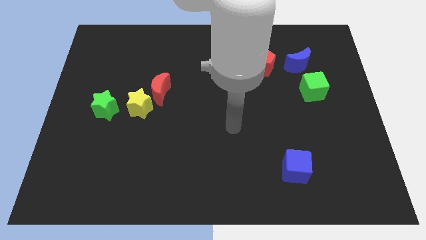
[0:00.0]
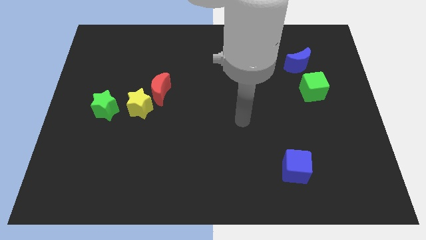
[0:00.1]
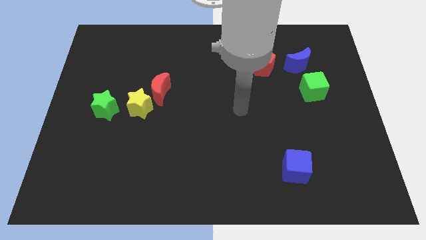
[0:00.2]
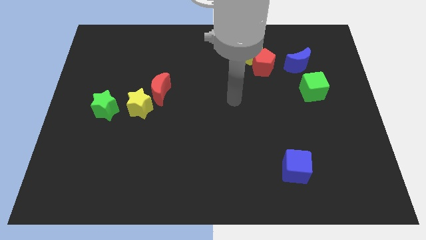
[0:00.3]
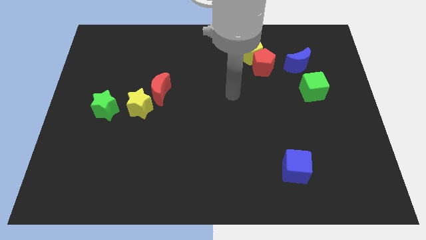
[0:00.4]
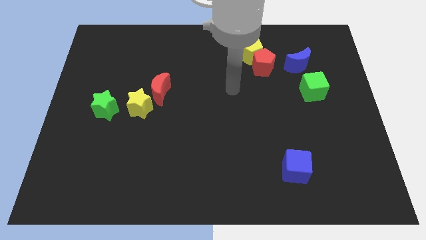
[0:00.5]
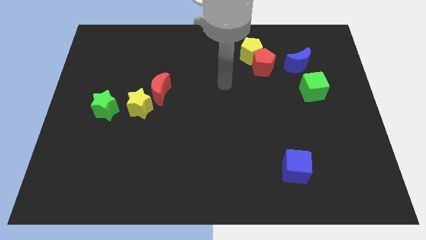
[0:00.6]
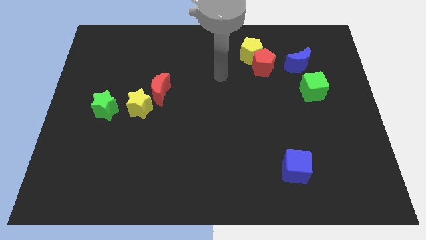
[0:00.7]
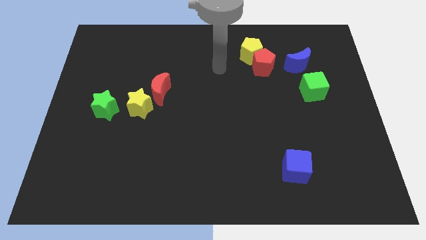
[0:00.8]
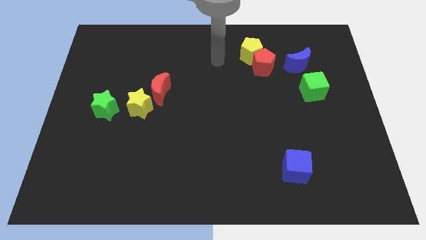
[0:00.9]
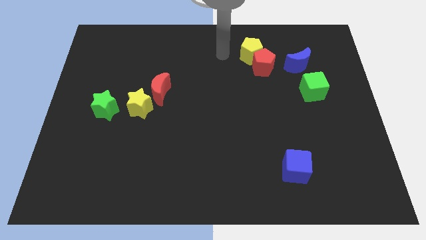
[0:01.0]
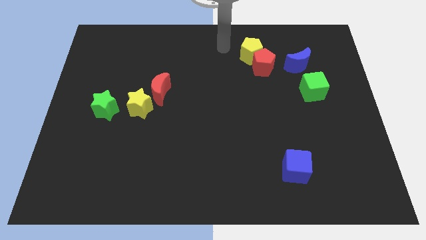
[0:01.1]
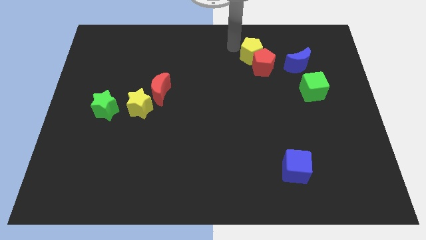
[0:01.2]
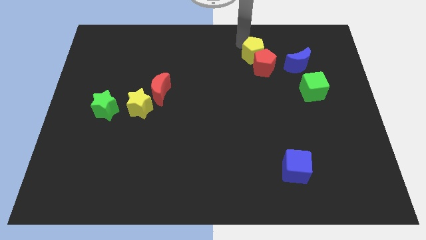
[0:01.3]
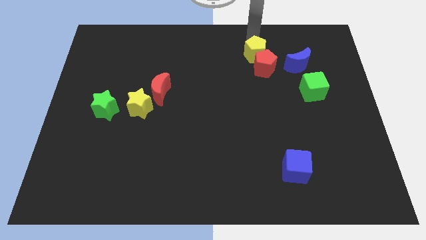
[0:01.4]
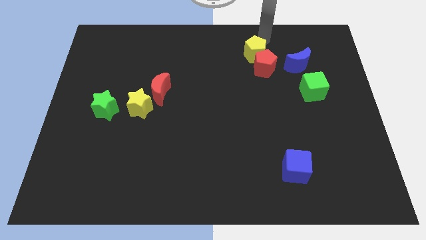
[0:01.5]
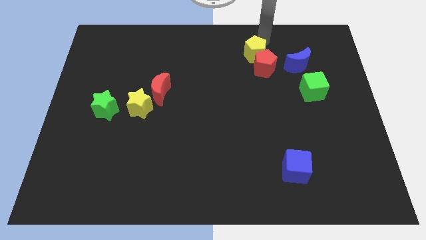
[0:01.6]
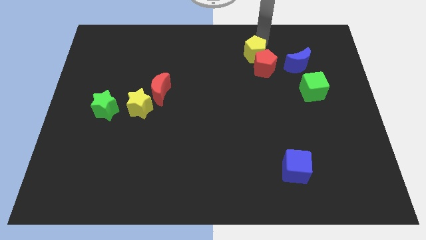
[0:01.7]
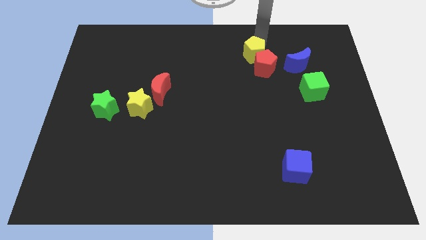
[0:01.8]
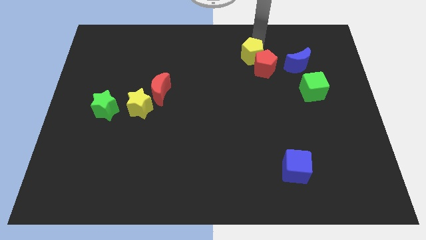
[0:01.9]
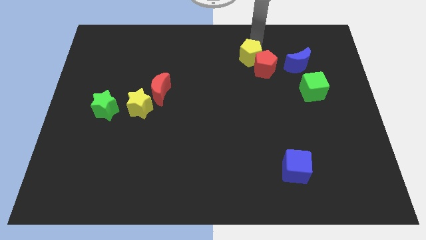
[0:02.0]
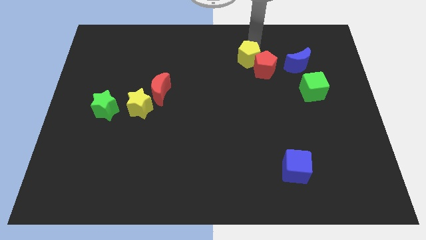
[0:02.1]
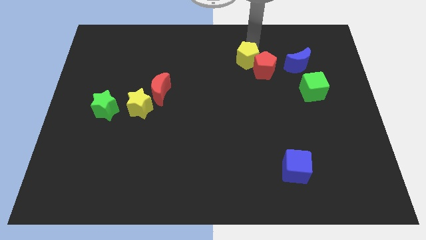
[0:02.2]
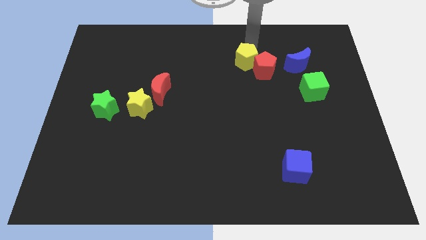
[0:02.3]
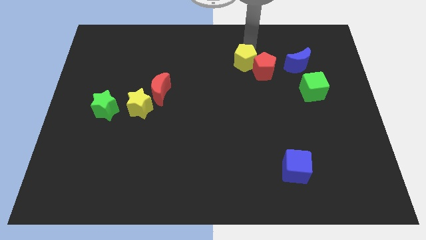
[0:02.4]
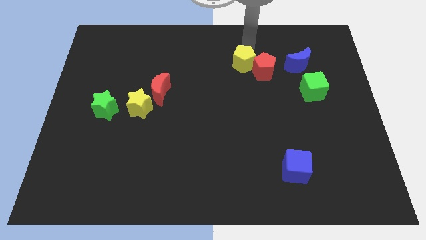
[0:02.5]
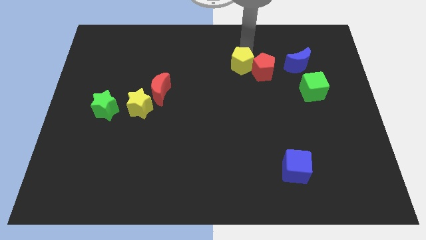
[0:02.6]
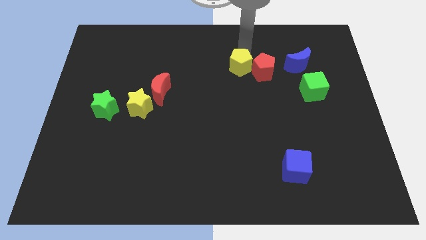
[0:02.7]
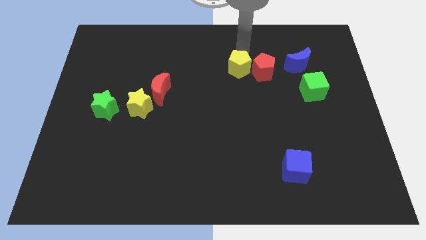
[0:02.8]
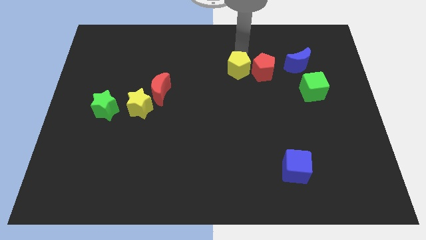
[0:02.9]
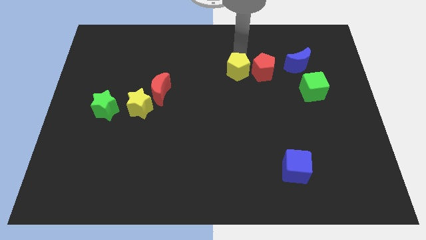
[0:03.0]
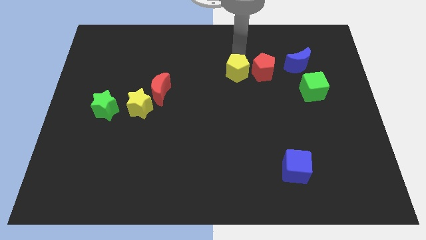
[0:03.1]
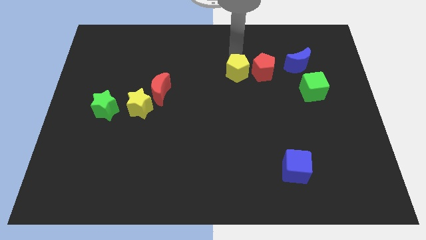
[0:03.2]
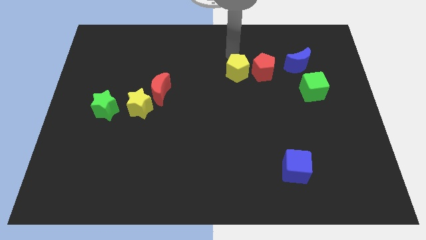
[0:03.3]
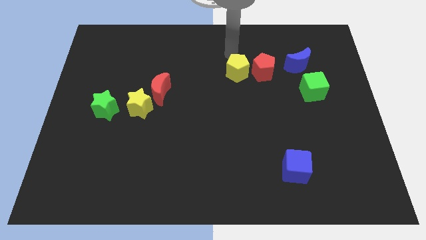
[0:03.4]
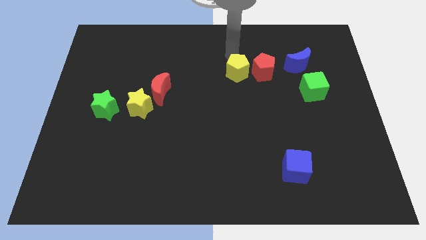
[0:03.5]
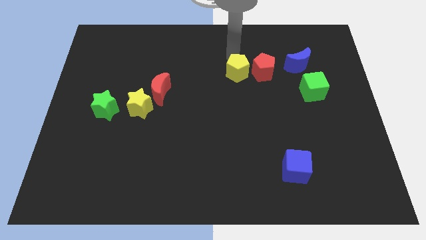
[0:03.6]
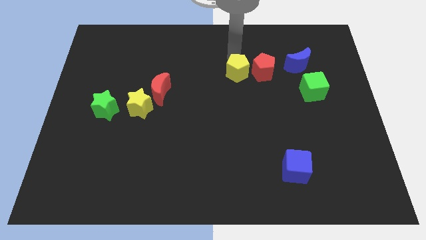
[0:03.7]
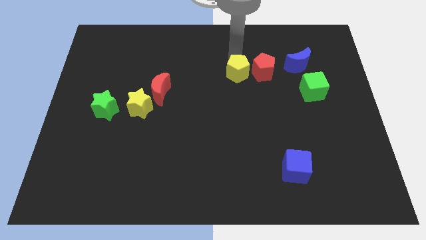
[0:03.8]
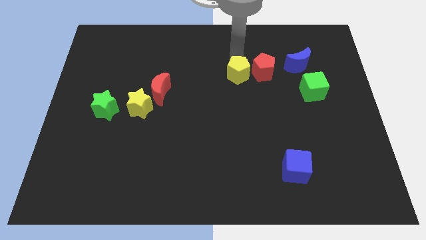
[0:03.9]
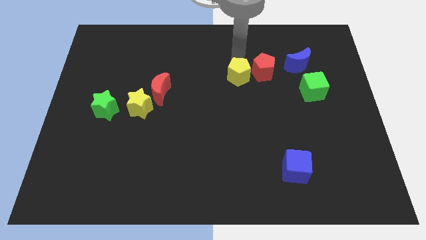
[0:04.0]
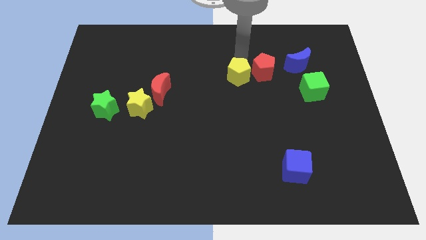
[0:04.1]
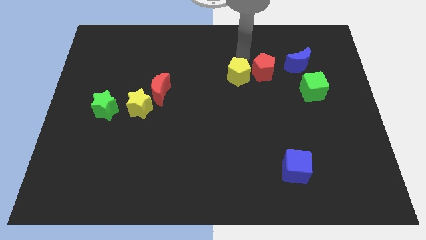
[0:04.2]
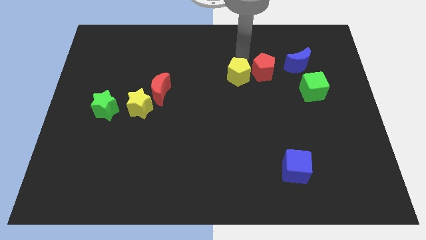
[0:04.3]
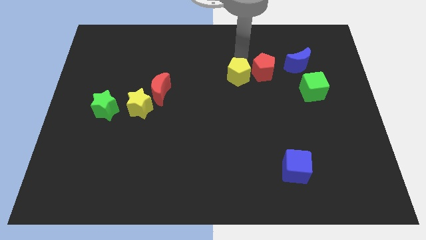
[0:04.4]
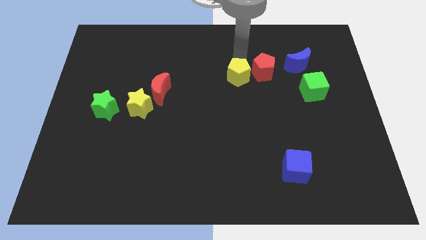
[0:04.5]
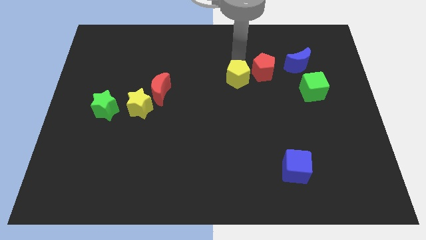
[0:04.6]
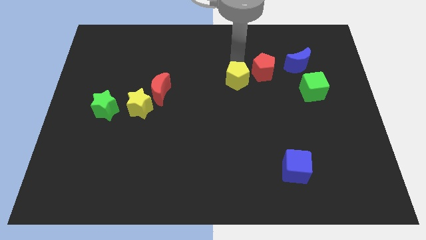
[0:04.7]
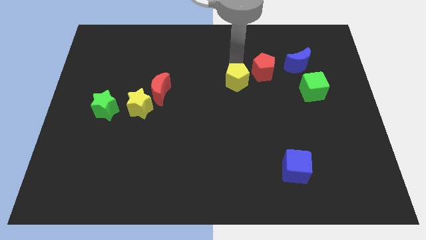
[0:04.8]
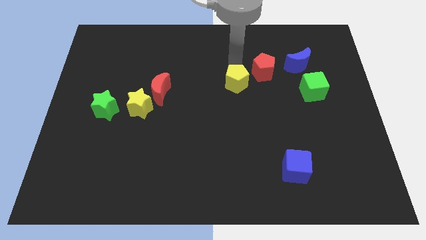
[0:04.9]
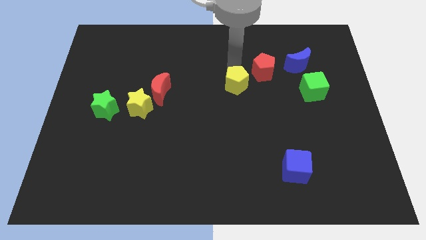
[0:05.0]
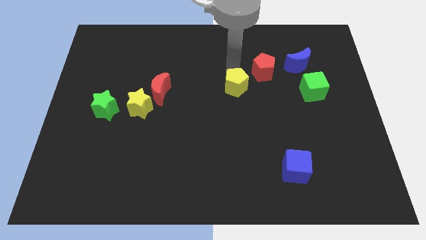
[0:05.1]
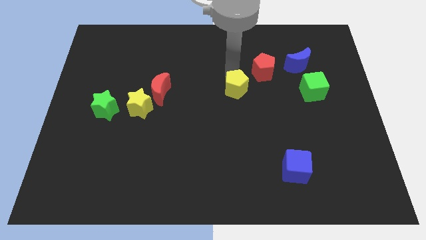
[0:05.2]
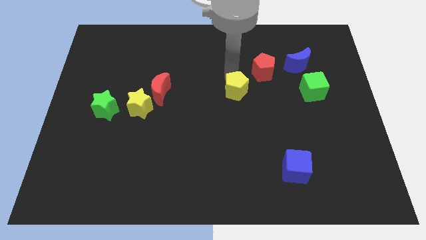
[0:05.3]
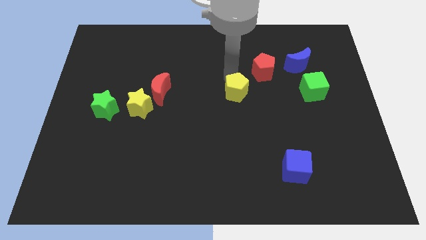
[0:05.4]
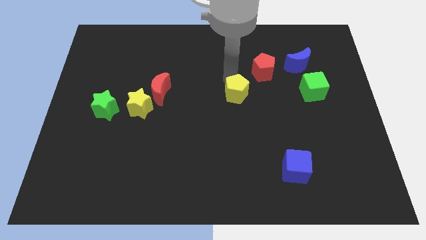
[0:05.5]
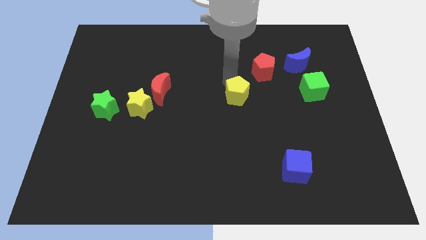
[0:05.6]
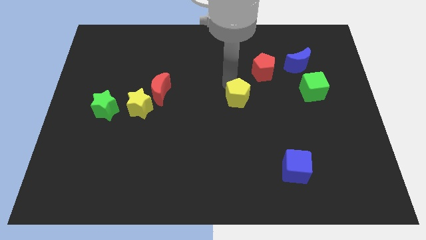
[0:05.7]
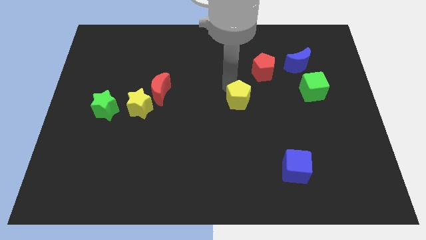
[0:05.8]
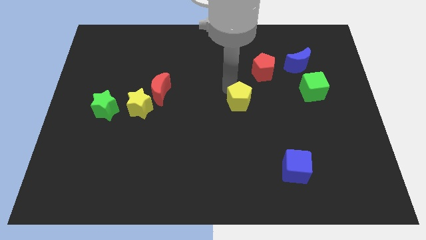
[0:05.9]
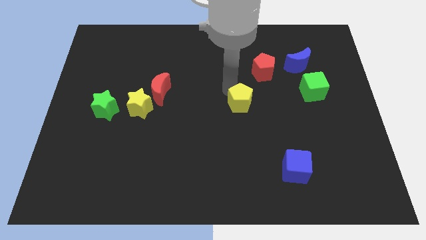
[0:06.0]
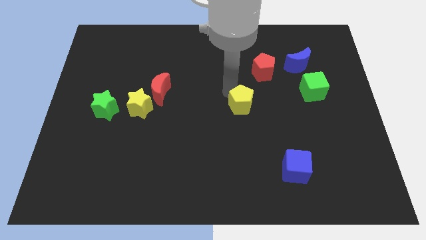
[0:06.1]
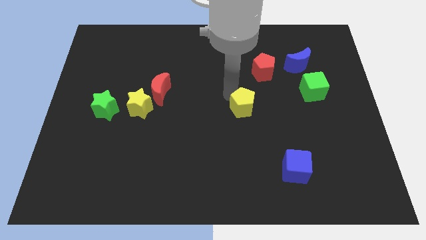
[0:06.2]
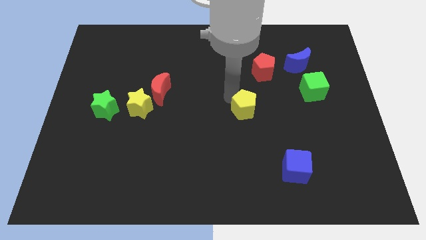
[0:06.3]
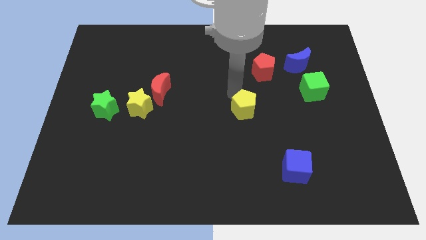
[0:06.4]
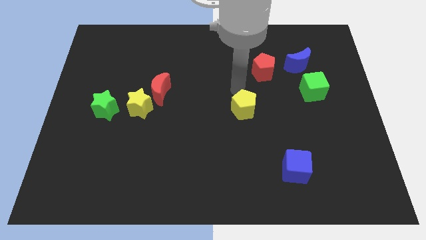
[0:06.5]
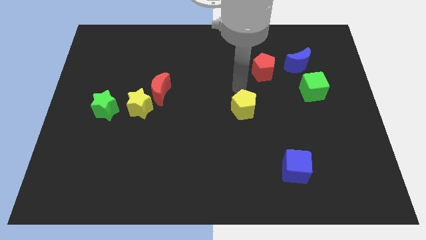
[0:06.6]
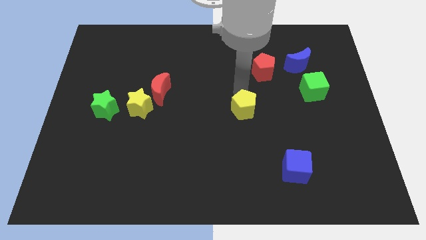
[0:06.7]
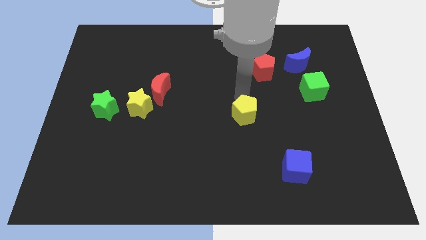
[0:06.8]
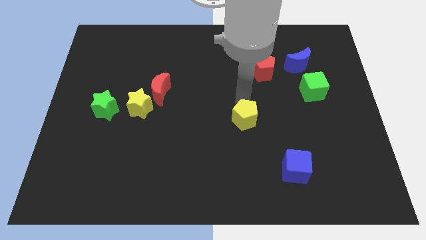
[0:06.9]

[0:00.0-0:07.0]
push the yellow pentagon downwards

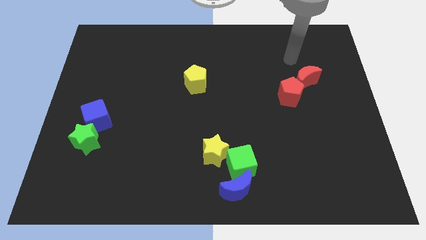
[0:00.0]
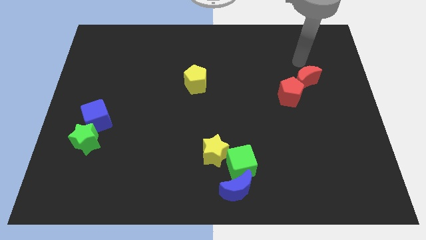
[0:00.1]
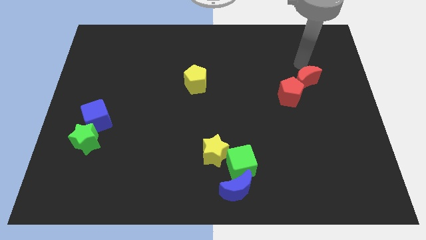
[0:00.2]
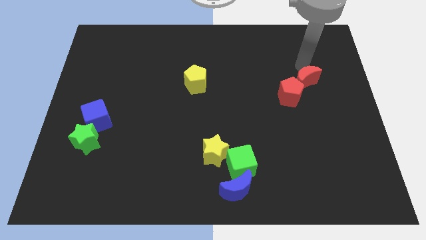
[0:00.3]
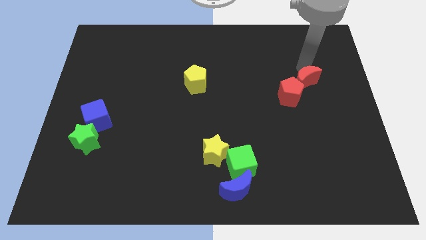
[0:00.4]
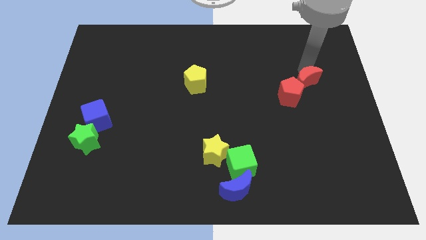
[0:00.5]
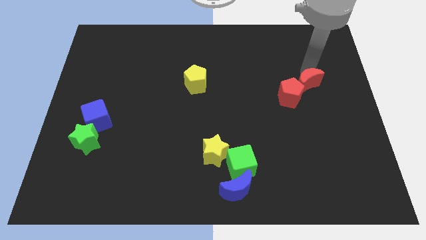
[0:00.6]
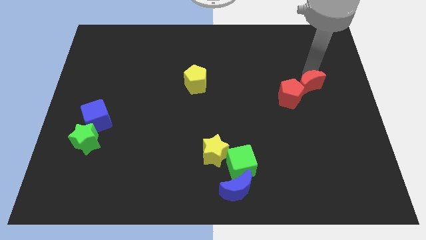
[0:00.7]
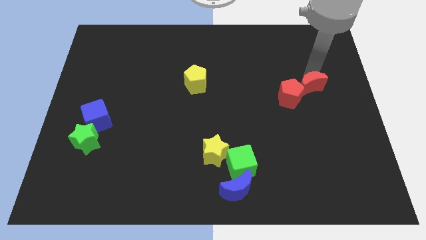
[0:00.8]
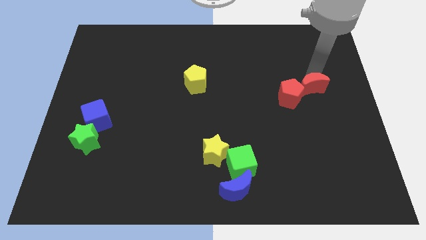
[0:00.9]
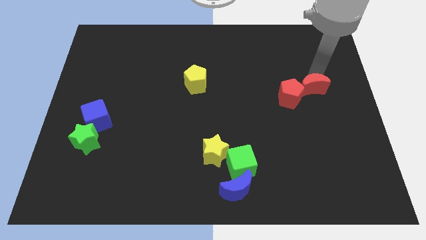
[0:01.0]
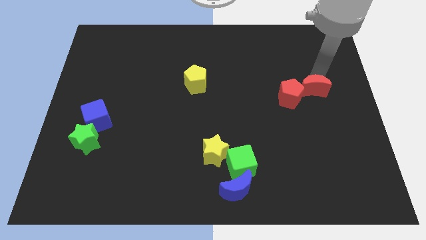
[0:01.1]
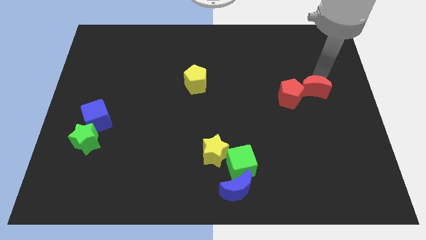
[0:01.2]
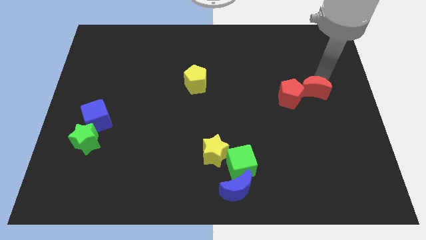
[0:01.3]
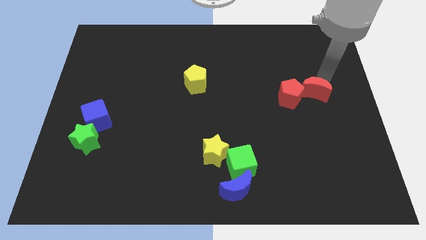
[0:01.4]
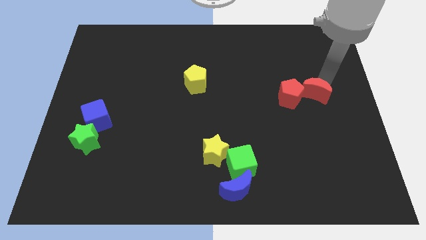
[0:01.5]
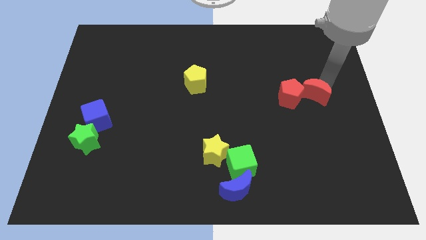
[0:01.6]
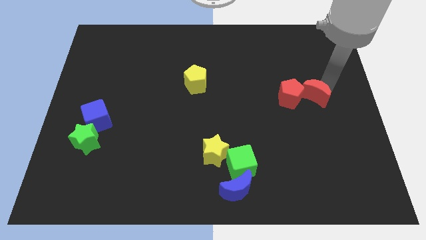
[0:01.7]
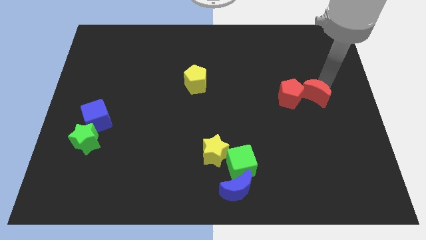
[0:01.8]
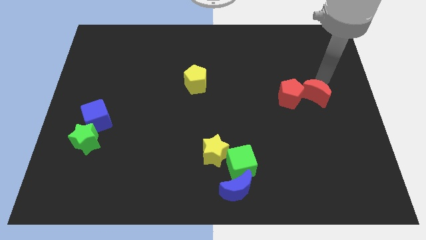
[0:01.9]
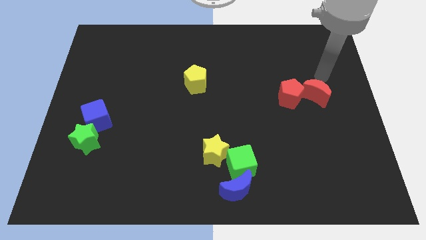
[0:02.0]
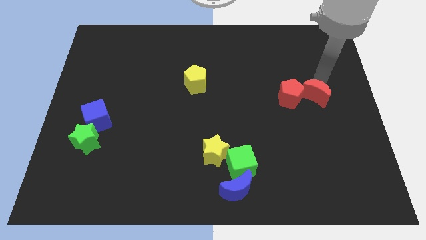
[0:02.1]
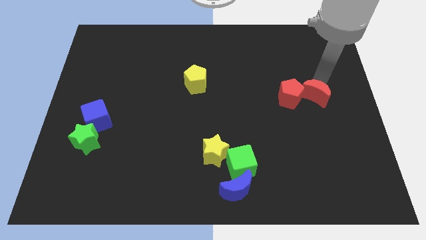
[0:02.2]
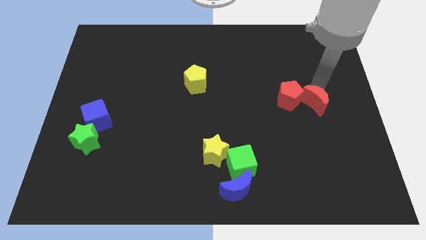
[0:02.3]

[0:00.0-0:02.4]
slide the red moon down slightly
